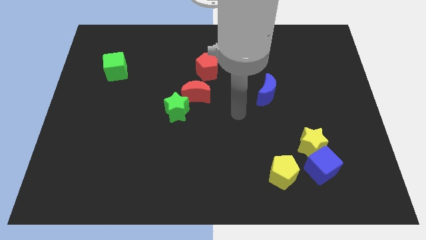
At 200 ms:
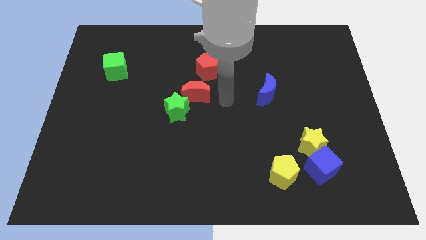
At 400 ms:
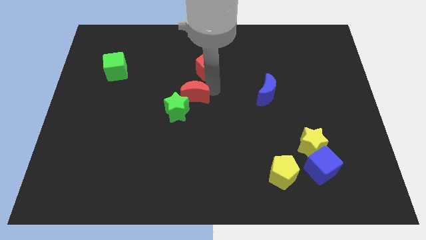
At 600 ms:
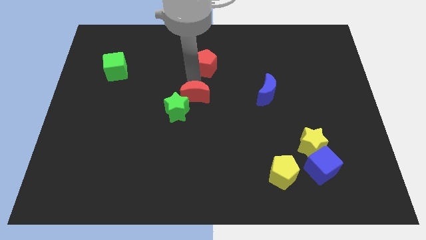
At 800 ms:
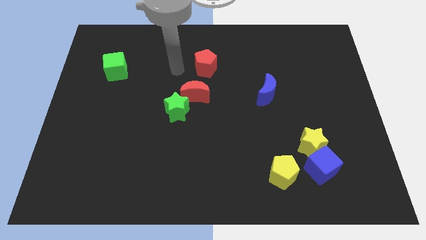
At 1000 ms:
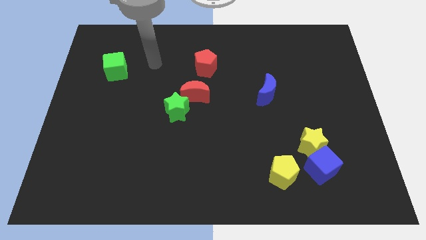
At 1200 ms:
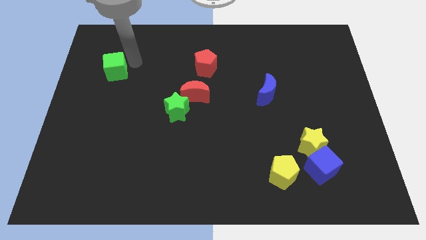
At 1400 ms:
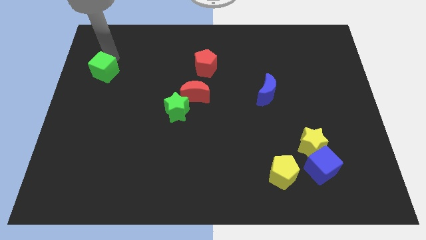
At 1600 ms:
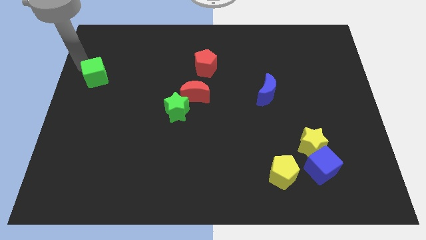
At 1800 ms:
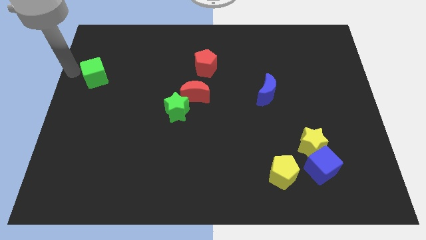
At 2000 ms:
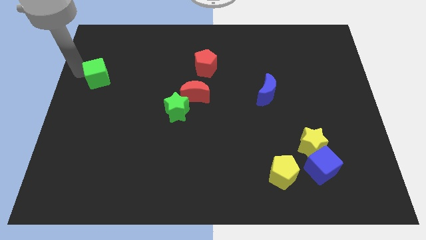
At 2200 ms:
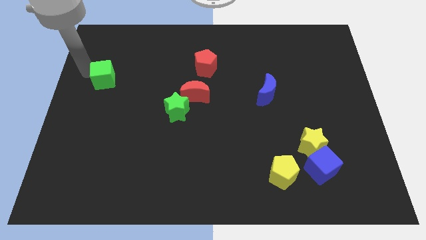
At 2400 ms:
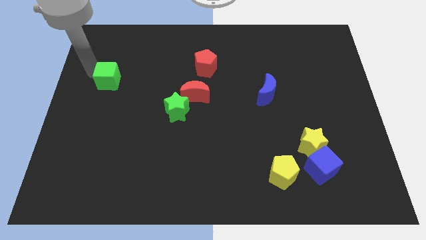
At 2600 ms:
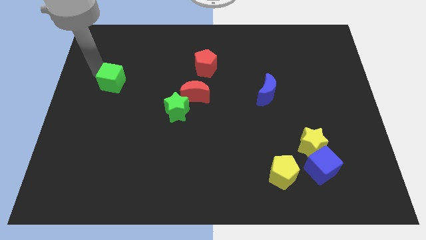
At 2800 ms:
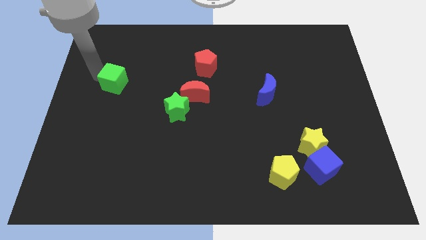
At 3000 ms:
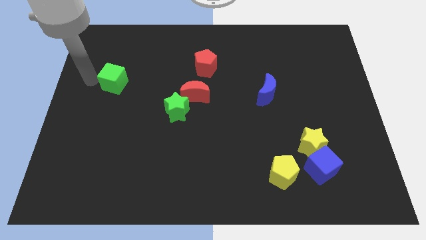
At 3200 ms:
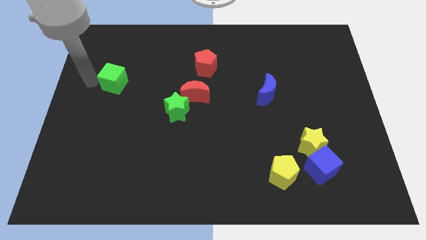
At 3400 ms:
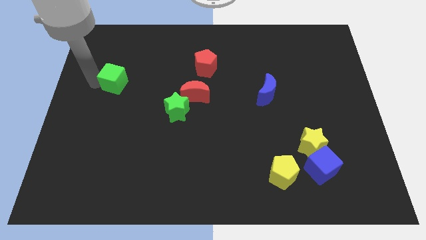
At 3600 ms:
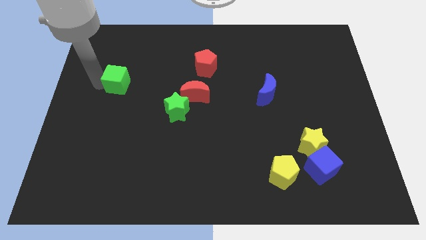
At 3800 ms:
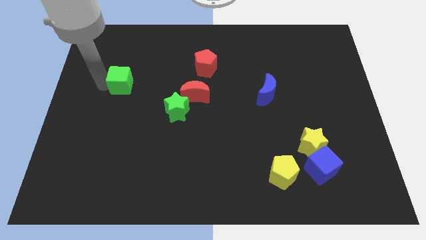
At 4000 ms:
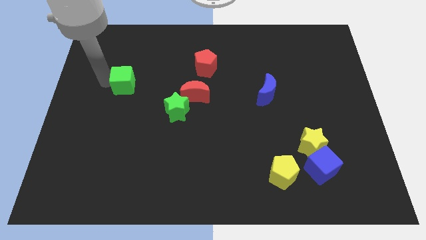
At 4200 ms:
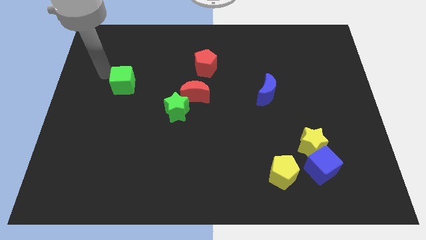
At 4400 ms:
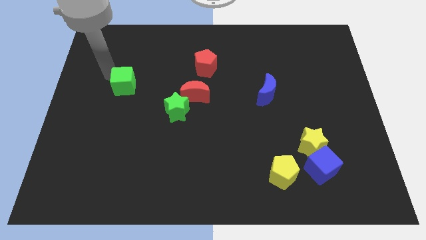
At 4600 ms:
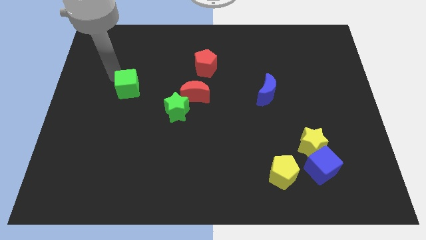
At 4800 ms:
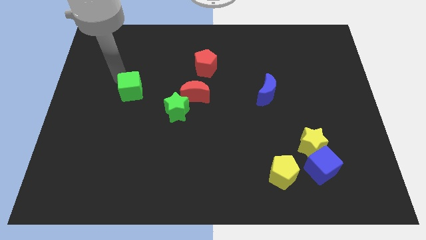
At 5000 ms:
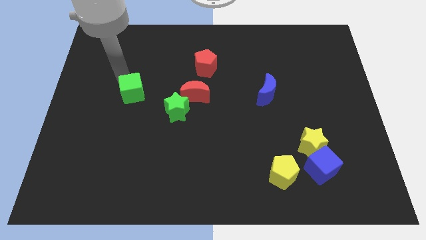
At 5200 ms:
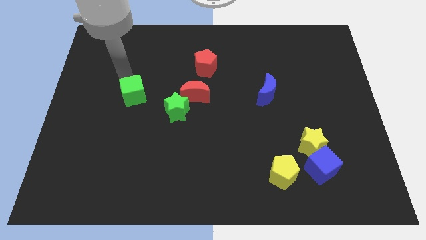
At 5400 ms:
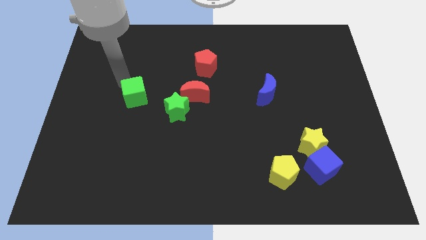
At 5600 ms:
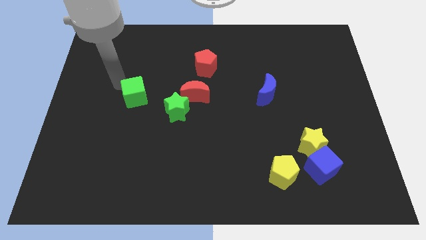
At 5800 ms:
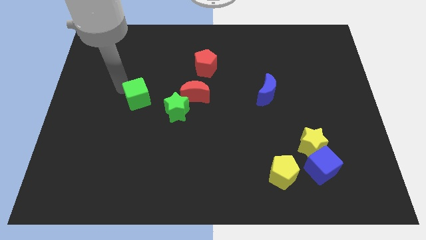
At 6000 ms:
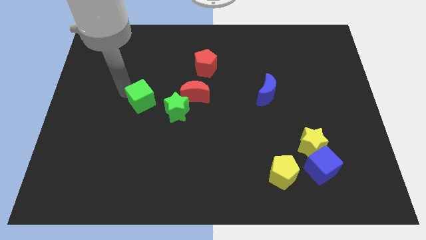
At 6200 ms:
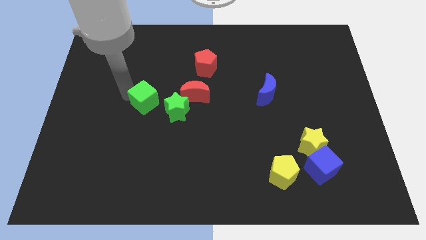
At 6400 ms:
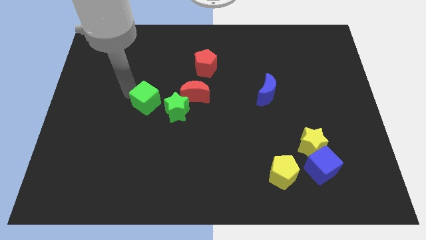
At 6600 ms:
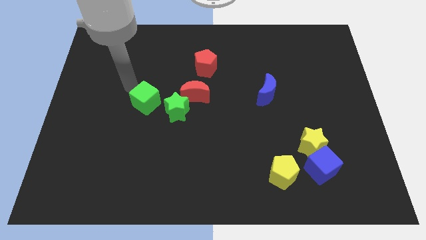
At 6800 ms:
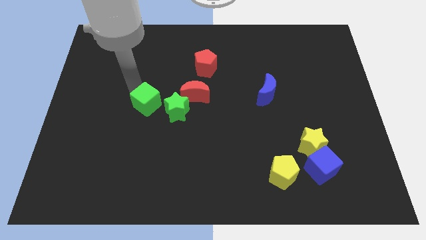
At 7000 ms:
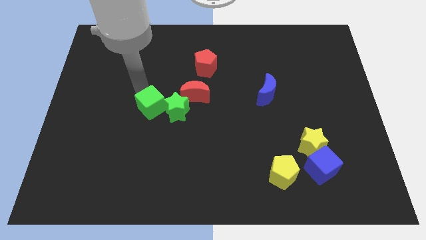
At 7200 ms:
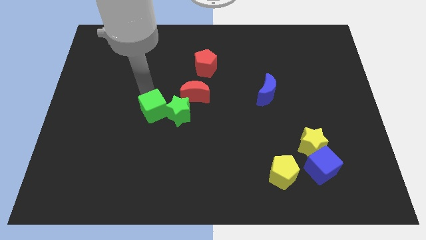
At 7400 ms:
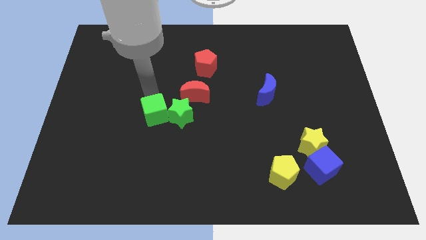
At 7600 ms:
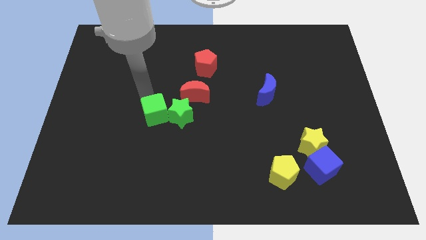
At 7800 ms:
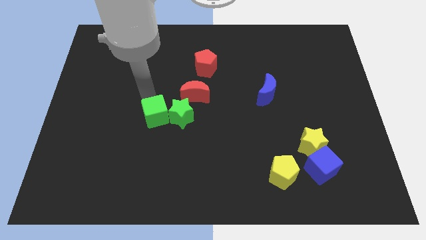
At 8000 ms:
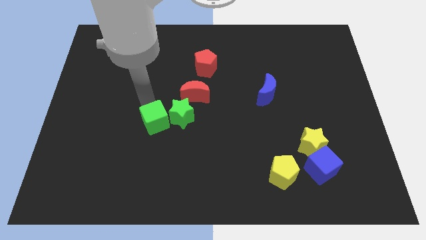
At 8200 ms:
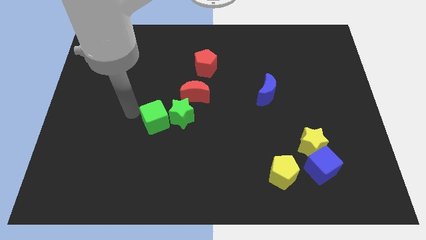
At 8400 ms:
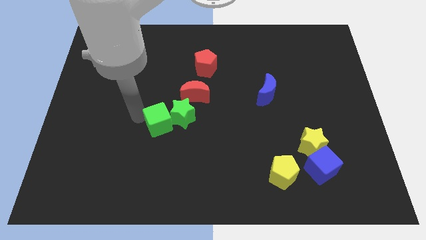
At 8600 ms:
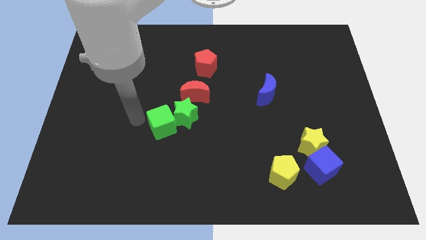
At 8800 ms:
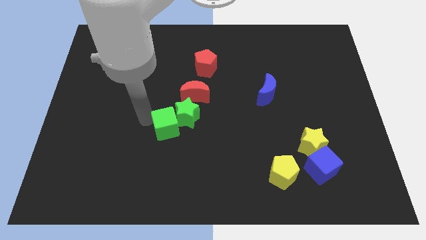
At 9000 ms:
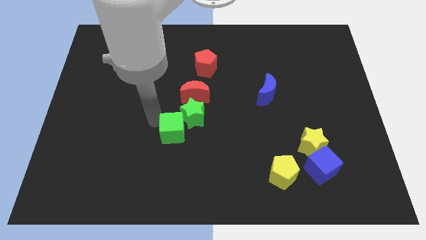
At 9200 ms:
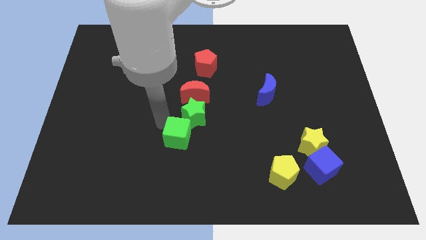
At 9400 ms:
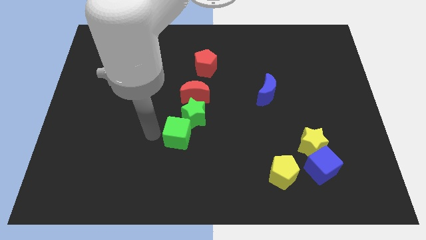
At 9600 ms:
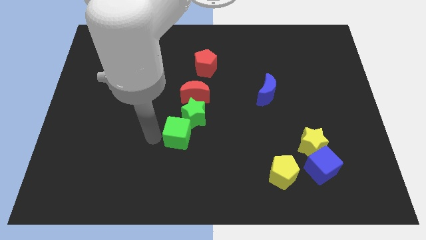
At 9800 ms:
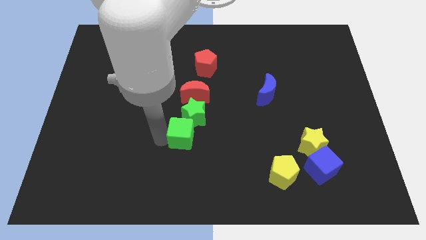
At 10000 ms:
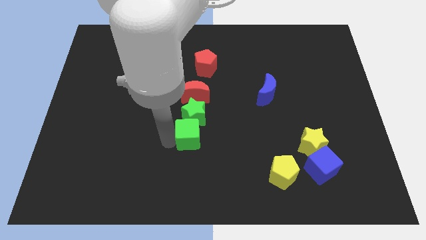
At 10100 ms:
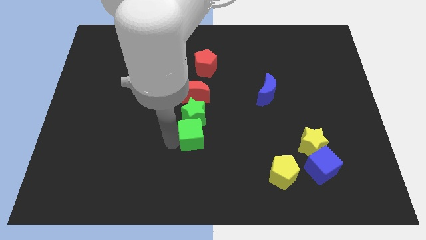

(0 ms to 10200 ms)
put the green cube diagonally down and to the right of the green star

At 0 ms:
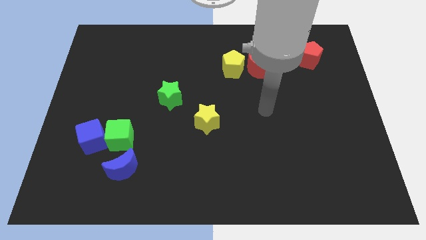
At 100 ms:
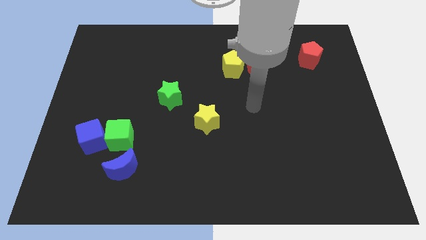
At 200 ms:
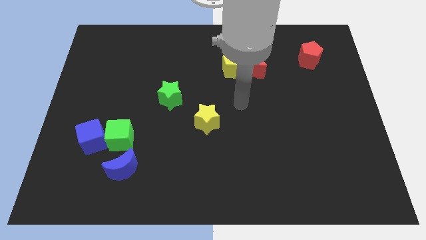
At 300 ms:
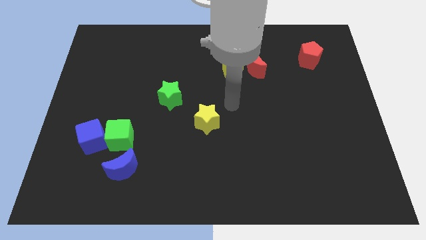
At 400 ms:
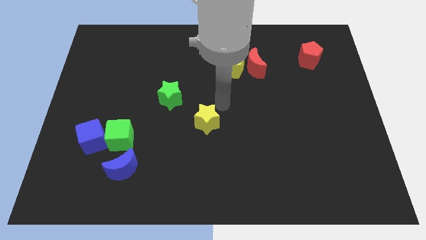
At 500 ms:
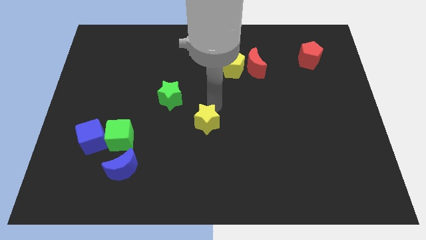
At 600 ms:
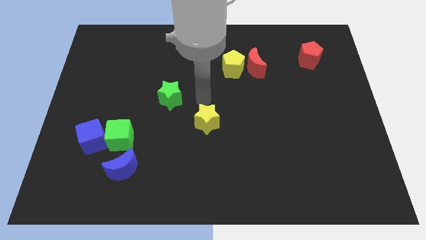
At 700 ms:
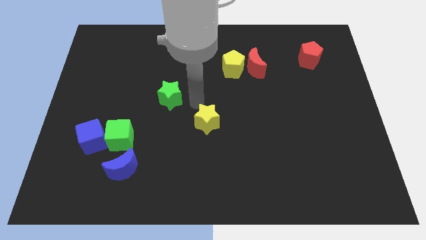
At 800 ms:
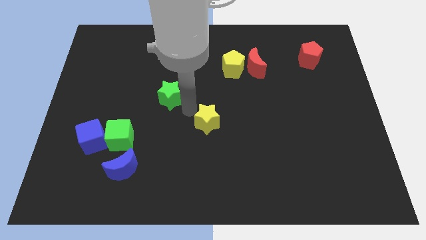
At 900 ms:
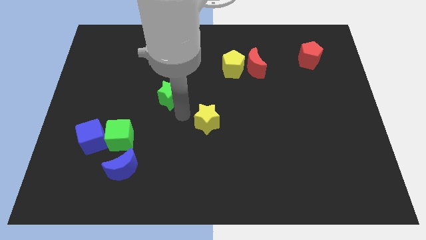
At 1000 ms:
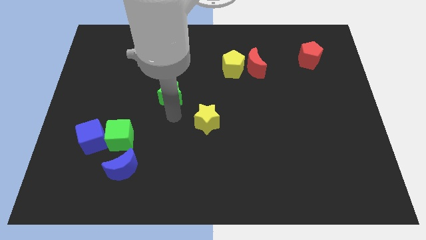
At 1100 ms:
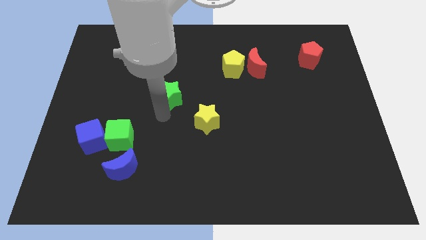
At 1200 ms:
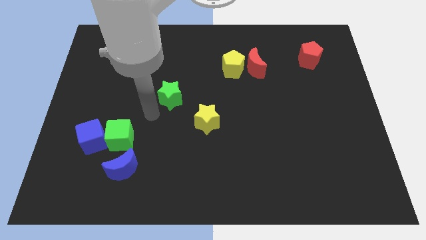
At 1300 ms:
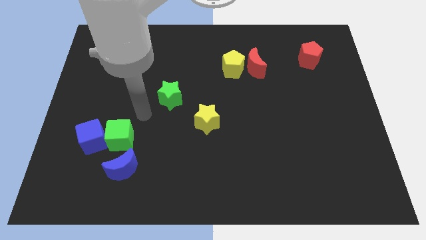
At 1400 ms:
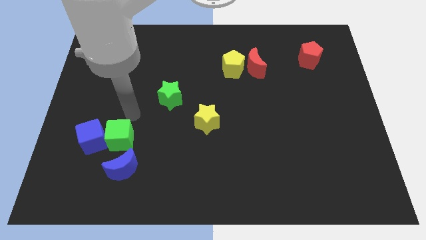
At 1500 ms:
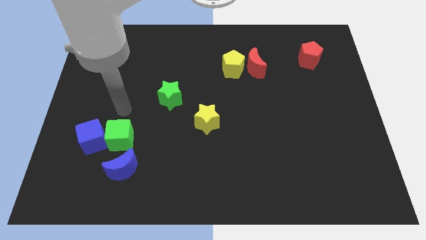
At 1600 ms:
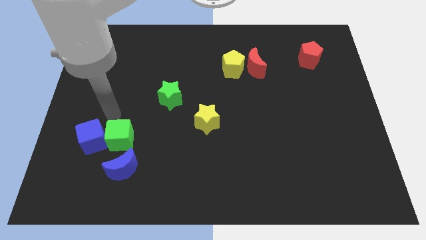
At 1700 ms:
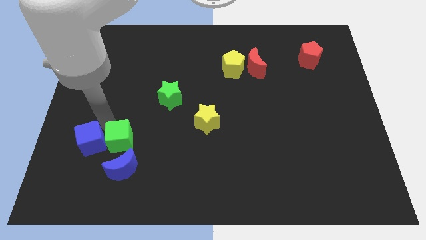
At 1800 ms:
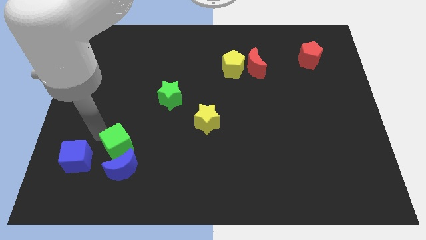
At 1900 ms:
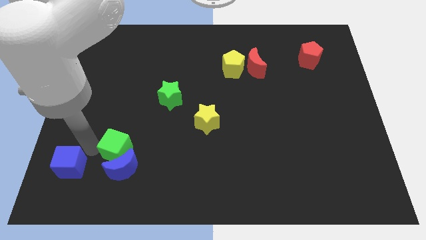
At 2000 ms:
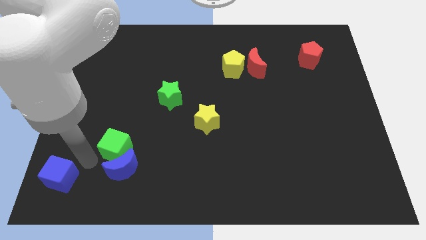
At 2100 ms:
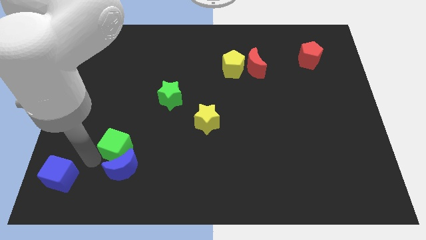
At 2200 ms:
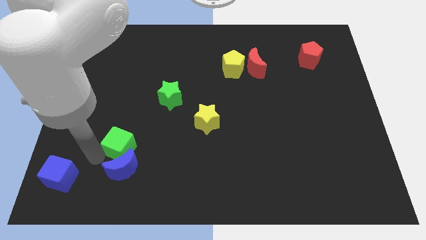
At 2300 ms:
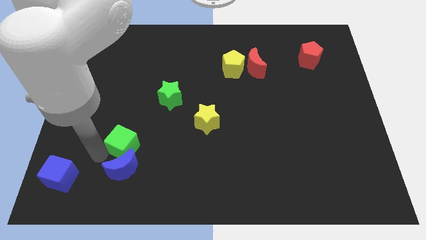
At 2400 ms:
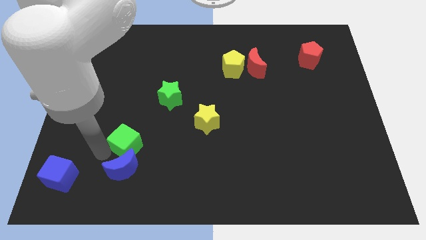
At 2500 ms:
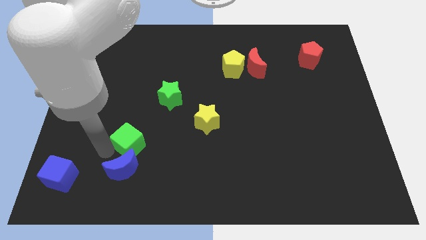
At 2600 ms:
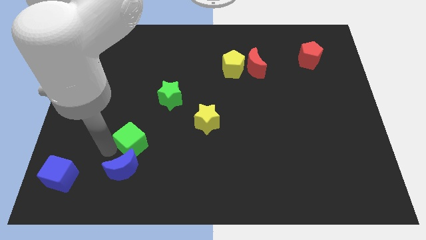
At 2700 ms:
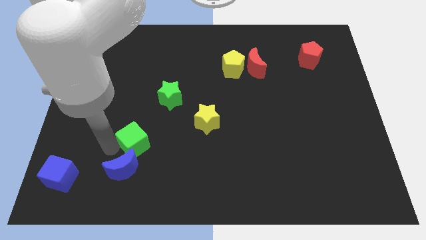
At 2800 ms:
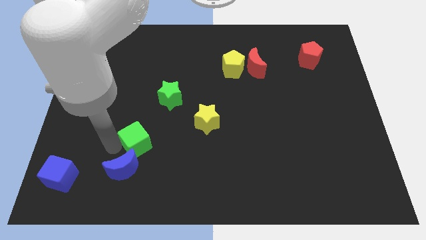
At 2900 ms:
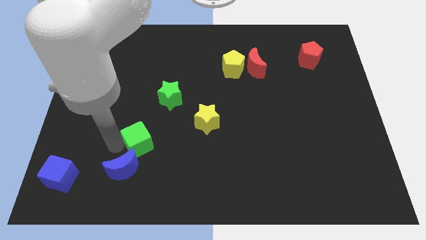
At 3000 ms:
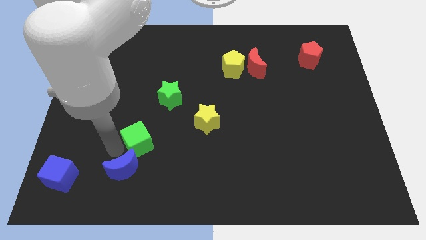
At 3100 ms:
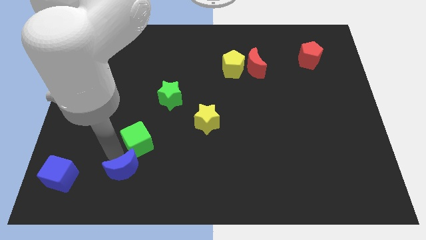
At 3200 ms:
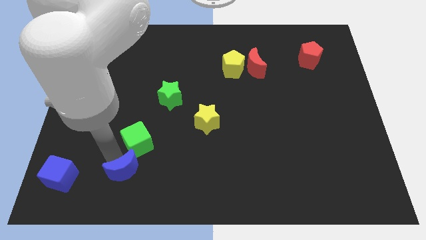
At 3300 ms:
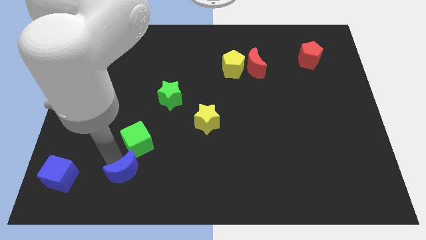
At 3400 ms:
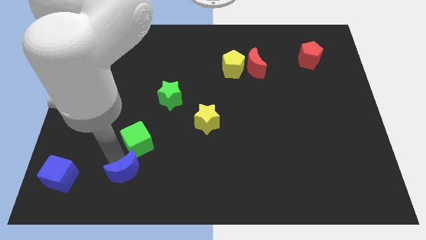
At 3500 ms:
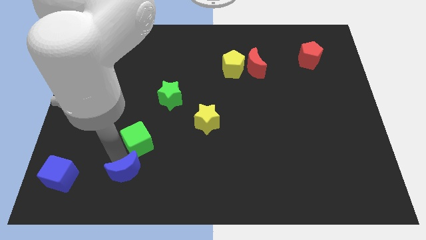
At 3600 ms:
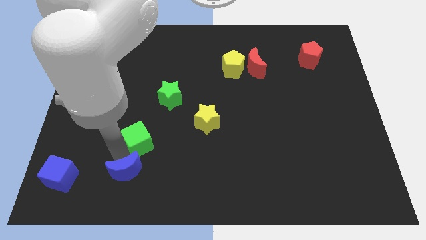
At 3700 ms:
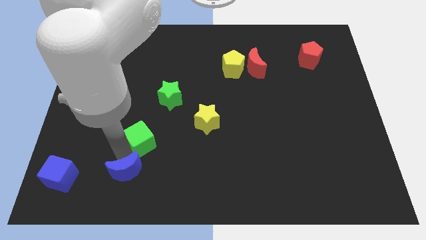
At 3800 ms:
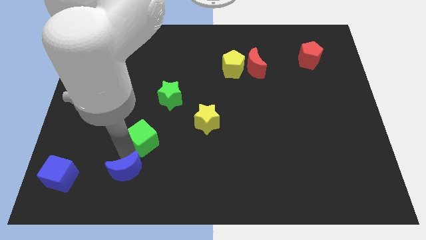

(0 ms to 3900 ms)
put the green cube to the bottom of the green star
